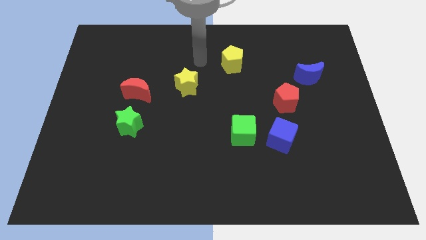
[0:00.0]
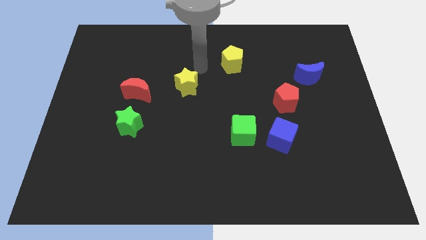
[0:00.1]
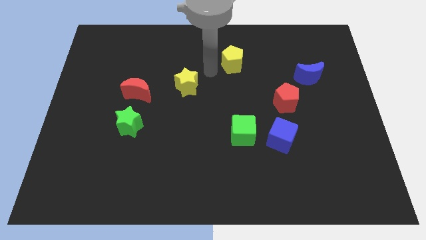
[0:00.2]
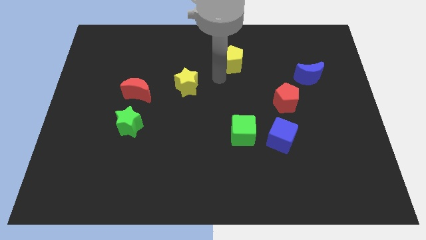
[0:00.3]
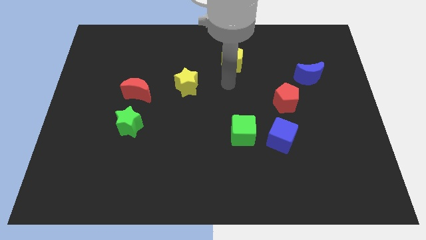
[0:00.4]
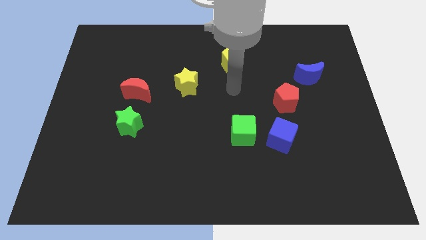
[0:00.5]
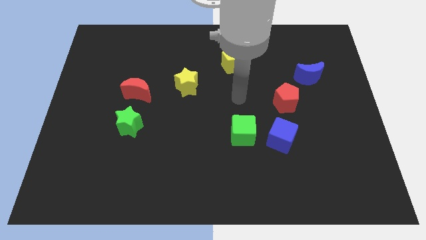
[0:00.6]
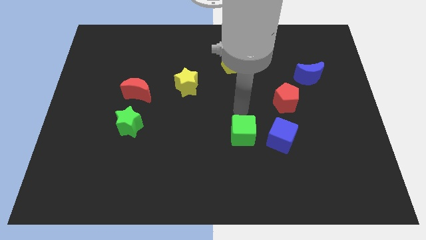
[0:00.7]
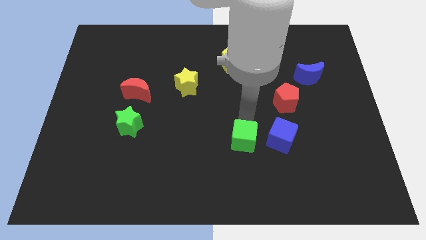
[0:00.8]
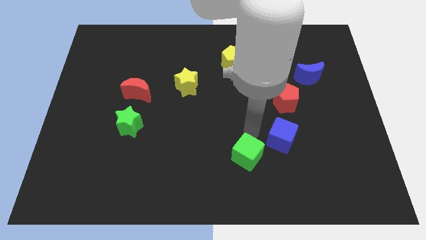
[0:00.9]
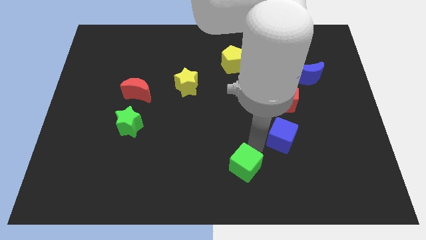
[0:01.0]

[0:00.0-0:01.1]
separate the blue cube from the green cube

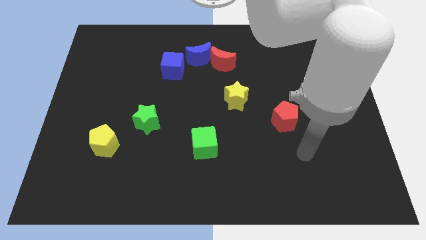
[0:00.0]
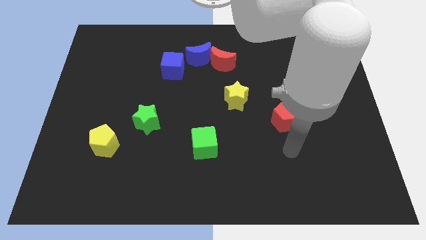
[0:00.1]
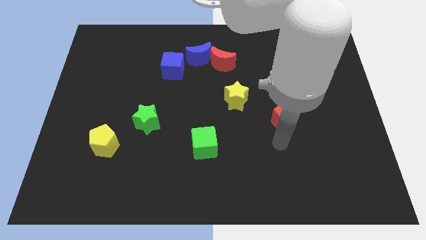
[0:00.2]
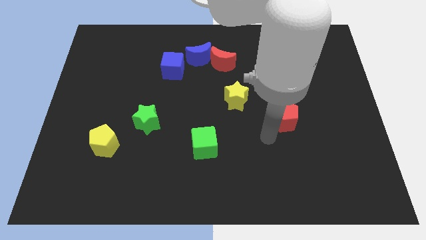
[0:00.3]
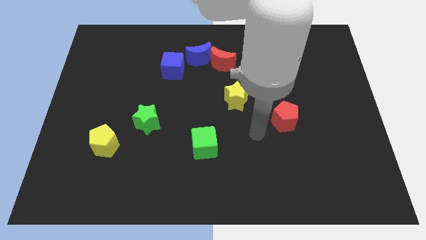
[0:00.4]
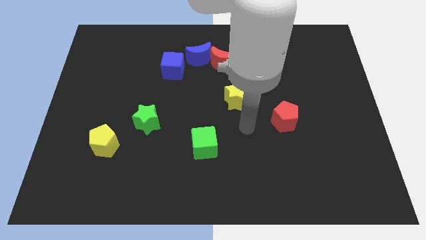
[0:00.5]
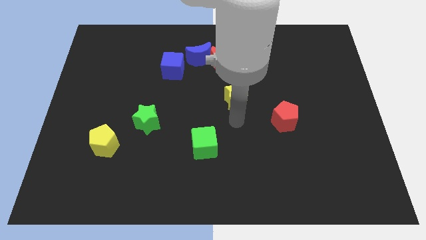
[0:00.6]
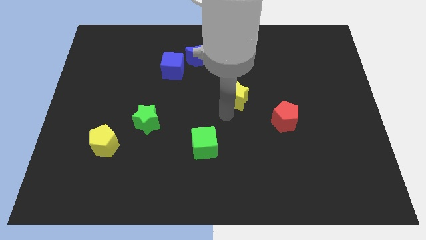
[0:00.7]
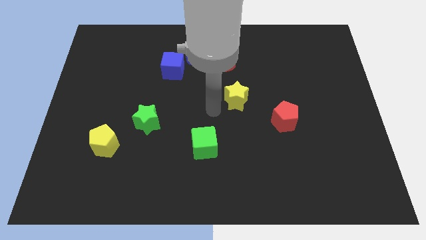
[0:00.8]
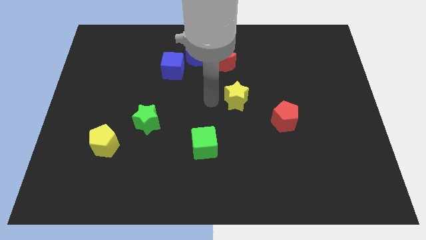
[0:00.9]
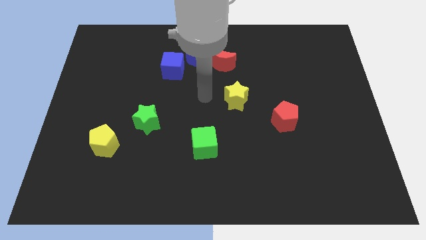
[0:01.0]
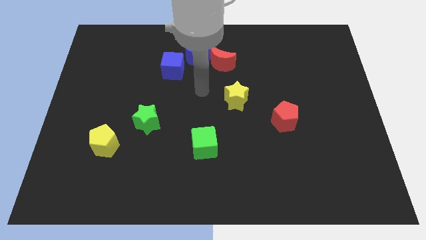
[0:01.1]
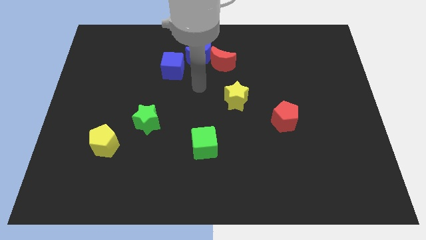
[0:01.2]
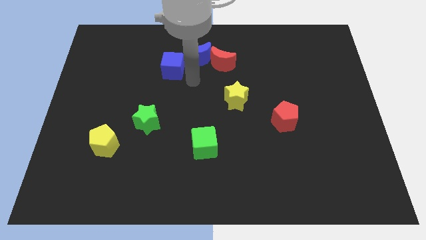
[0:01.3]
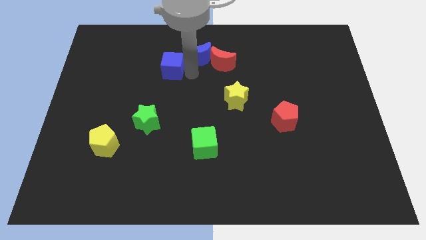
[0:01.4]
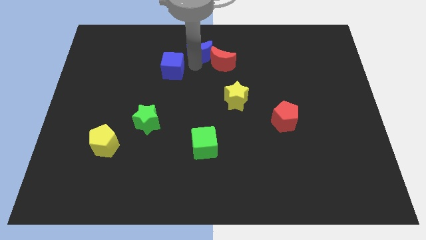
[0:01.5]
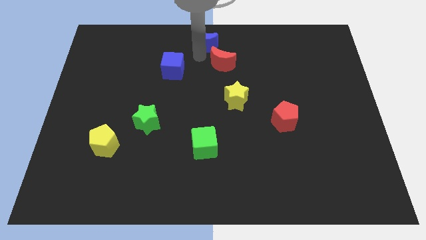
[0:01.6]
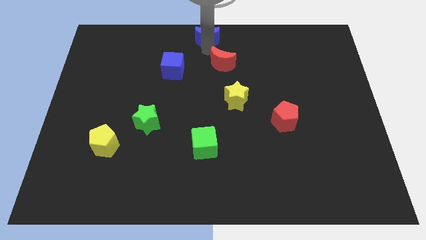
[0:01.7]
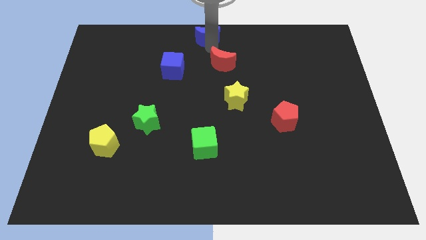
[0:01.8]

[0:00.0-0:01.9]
move the red moon away from the blue moon

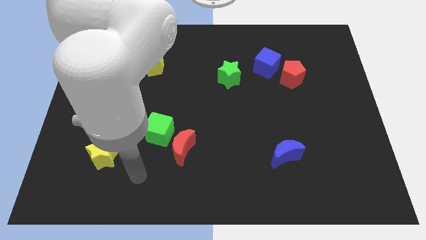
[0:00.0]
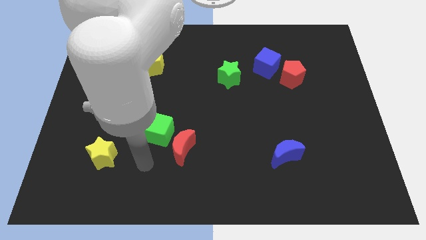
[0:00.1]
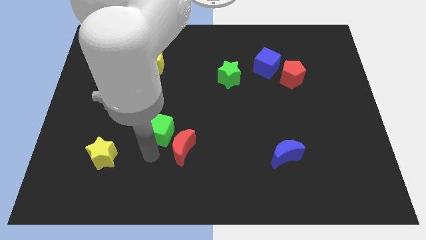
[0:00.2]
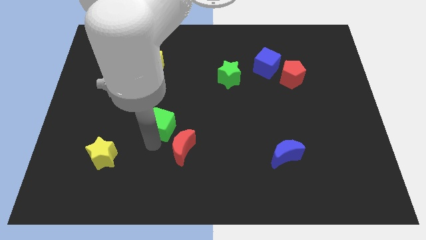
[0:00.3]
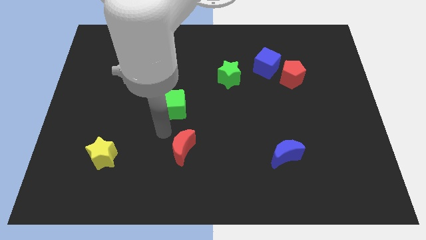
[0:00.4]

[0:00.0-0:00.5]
pull the red moon apart from the green cube

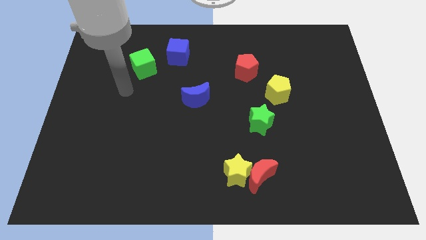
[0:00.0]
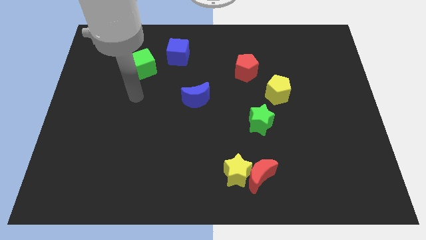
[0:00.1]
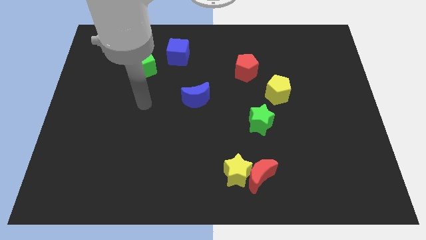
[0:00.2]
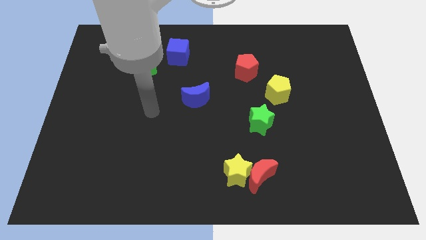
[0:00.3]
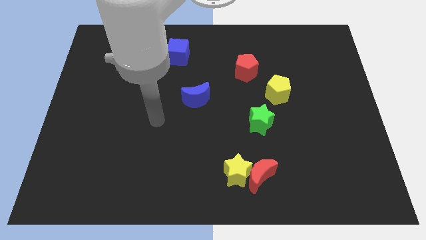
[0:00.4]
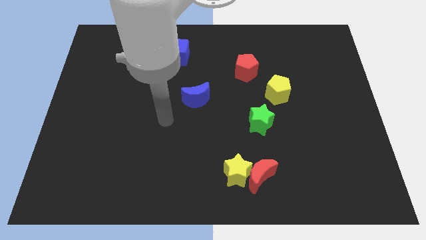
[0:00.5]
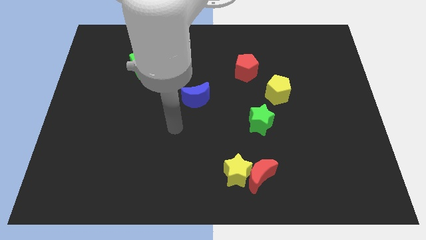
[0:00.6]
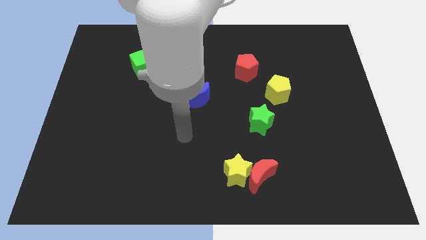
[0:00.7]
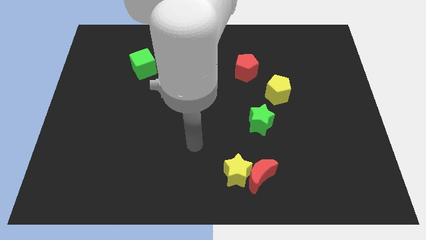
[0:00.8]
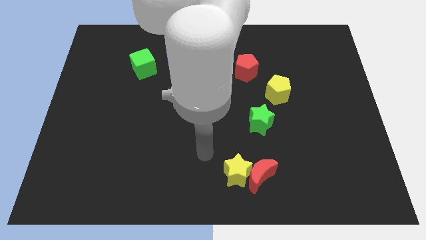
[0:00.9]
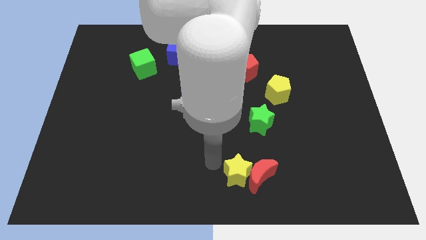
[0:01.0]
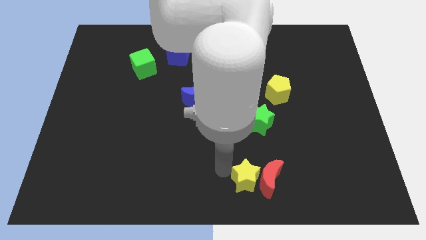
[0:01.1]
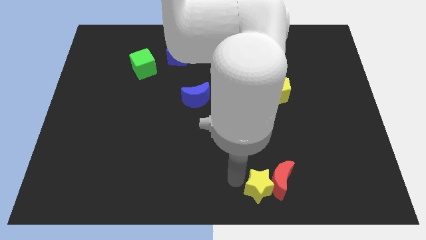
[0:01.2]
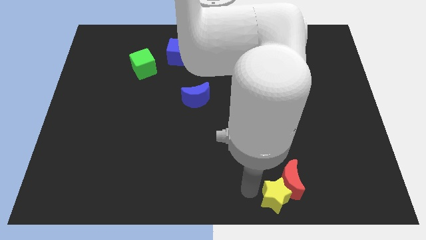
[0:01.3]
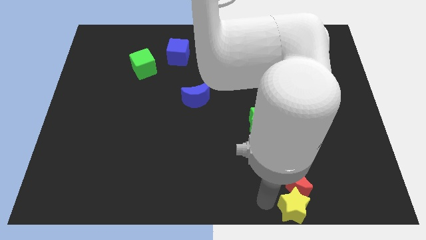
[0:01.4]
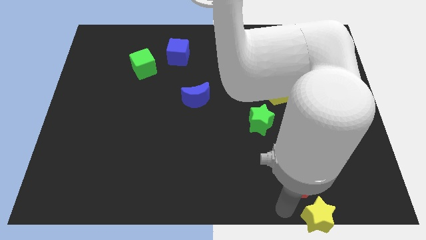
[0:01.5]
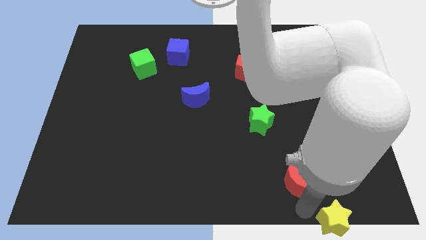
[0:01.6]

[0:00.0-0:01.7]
pull the red moon apart from the yellow star

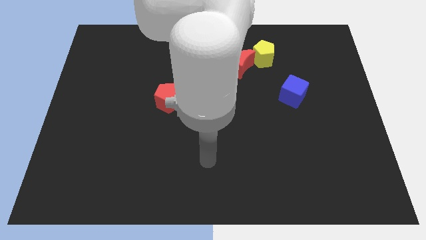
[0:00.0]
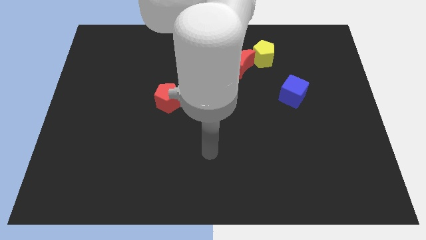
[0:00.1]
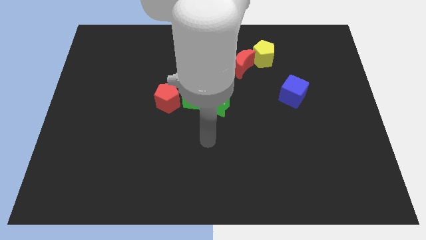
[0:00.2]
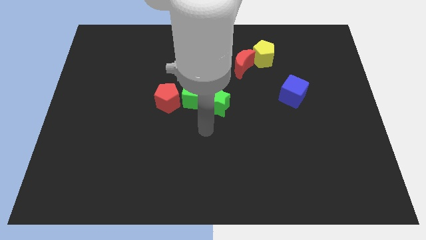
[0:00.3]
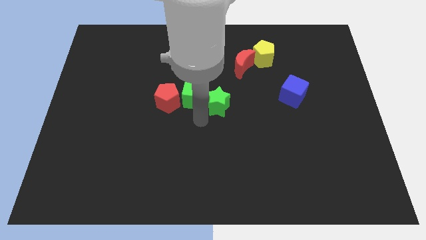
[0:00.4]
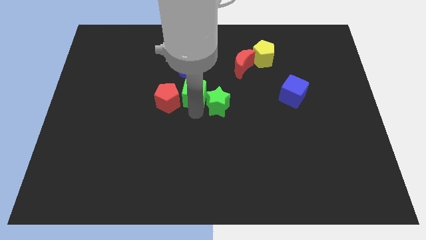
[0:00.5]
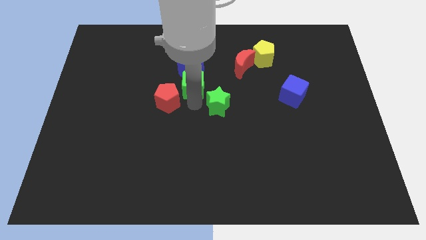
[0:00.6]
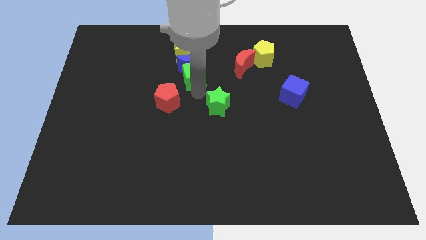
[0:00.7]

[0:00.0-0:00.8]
separate the green star from the green cube

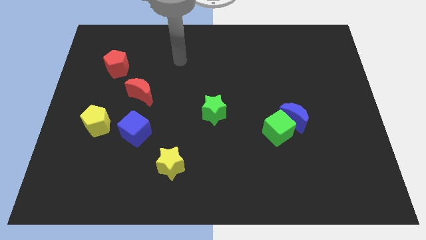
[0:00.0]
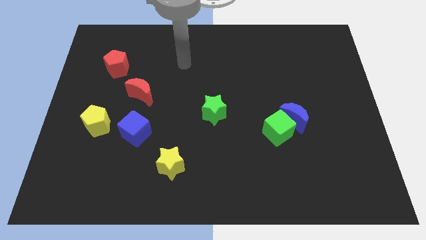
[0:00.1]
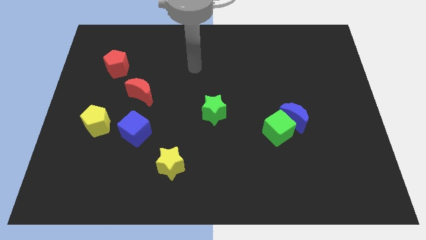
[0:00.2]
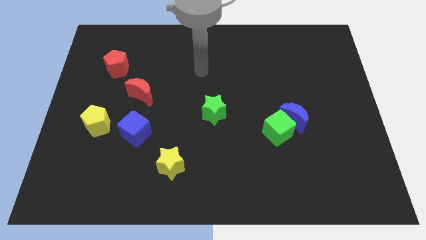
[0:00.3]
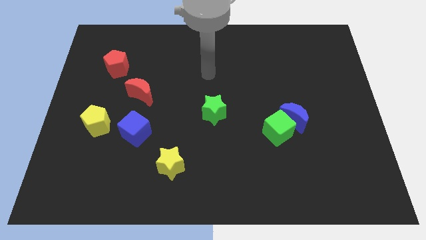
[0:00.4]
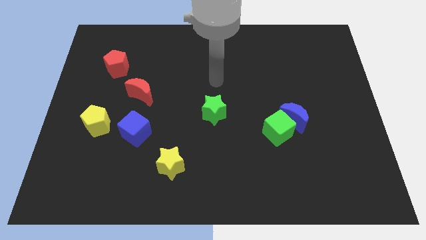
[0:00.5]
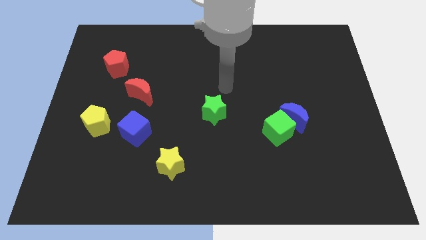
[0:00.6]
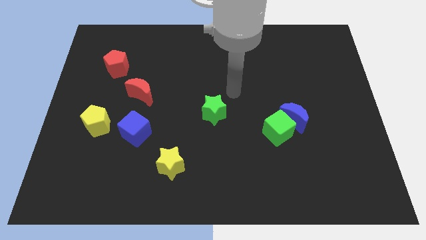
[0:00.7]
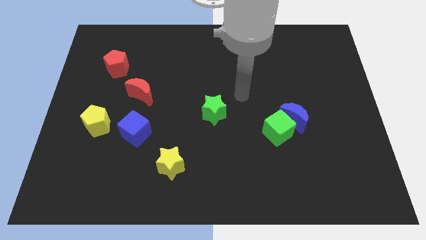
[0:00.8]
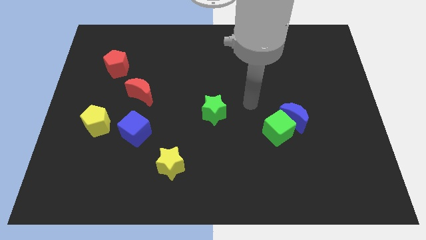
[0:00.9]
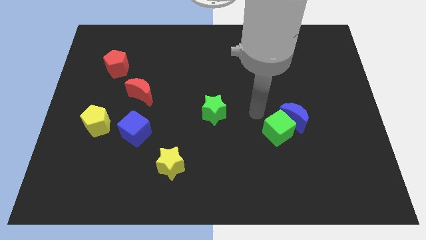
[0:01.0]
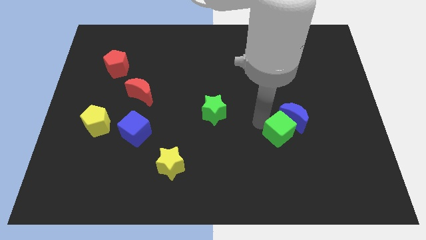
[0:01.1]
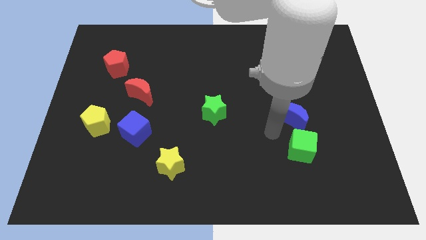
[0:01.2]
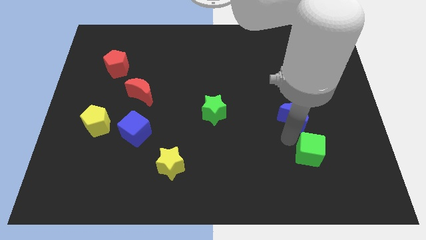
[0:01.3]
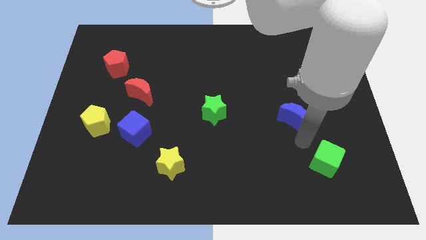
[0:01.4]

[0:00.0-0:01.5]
move the blue moon away from the green cube

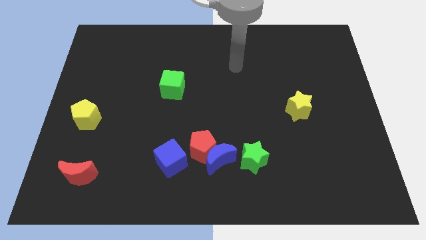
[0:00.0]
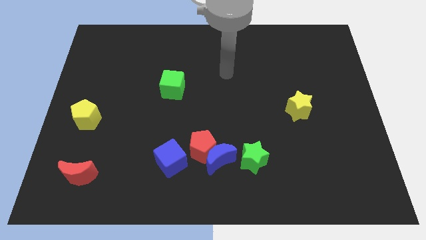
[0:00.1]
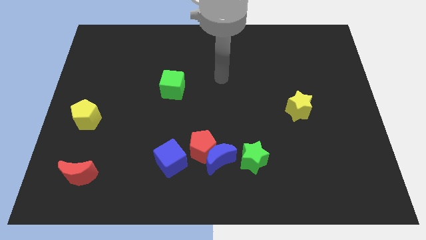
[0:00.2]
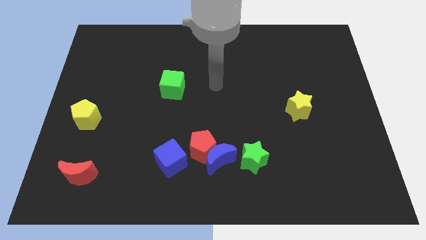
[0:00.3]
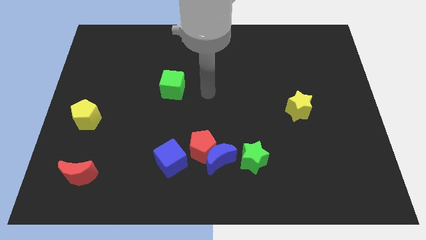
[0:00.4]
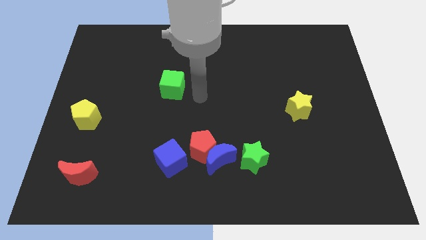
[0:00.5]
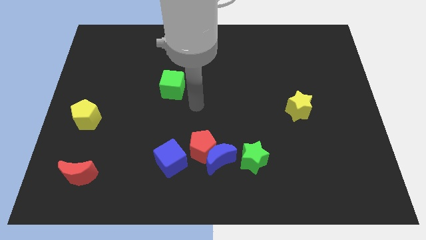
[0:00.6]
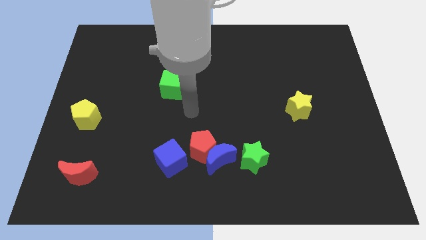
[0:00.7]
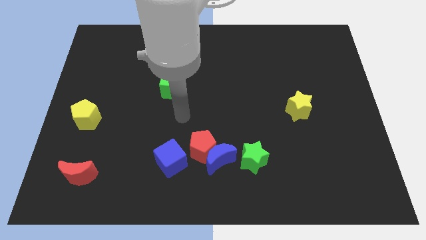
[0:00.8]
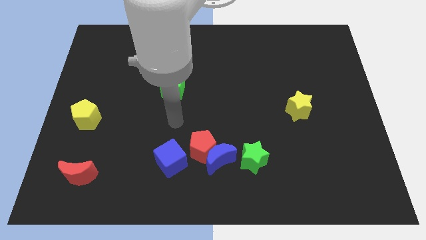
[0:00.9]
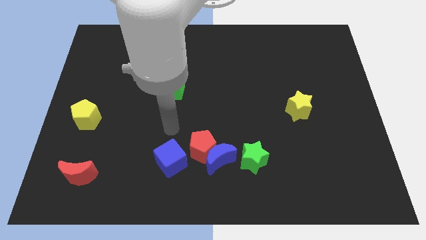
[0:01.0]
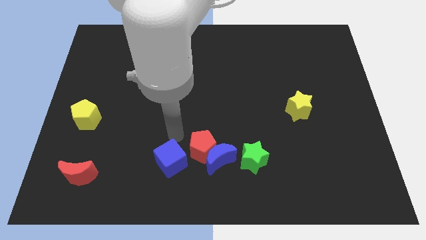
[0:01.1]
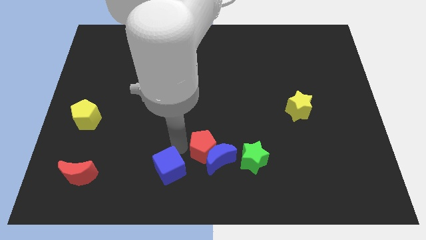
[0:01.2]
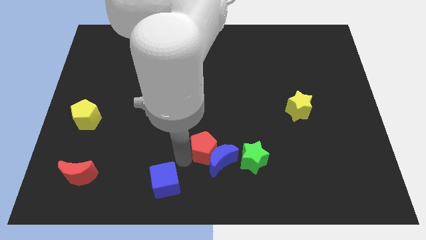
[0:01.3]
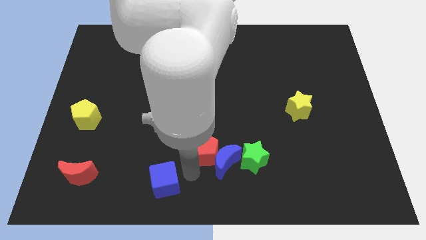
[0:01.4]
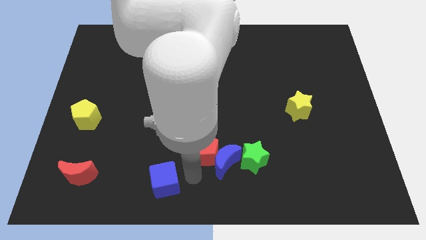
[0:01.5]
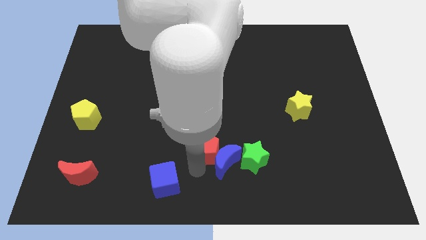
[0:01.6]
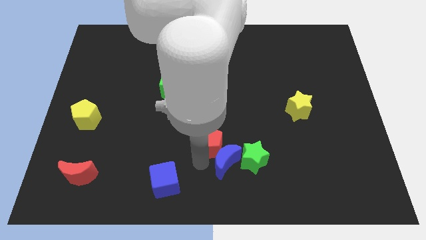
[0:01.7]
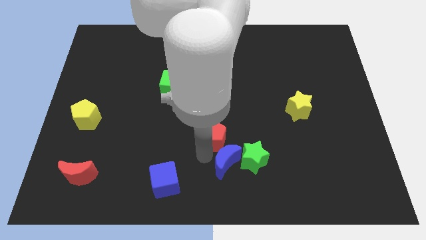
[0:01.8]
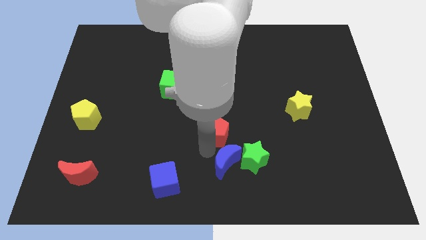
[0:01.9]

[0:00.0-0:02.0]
separate the red pentagon from the blue moon and blue cube
